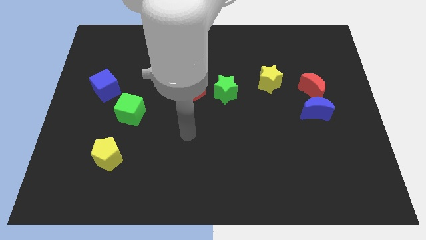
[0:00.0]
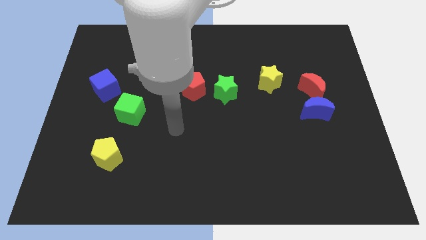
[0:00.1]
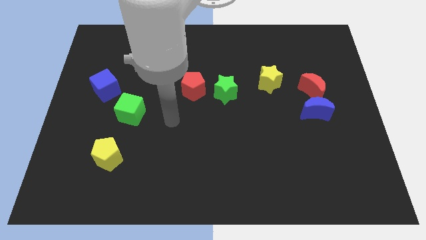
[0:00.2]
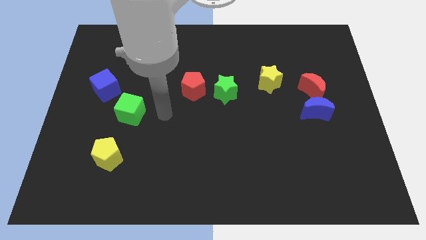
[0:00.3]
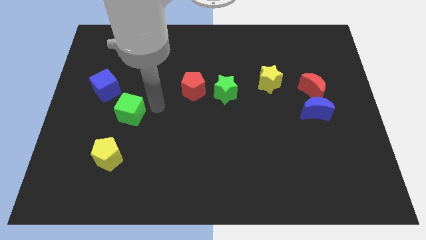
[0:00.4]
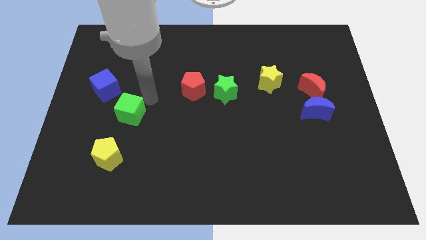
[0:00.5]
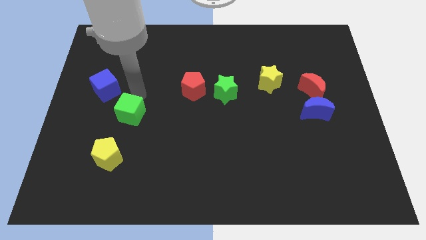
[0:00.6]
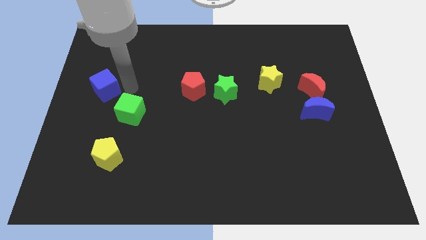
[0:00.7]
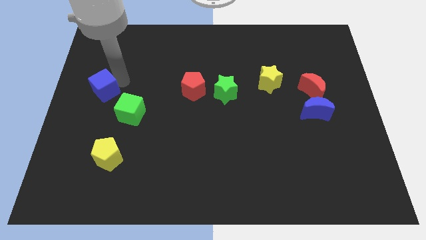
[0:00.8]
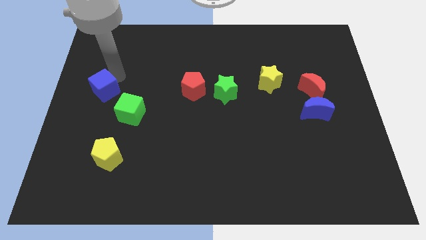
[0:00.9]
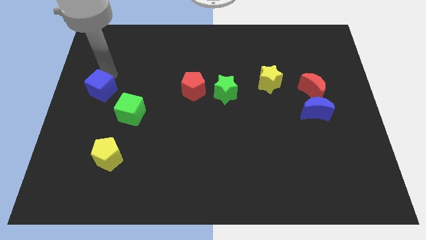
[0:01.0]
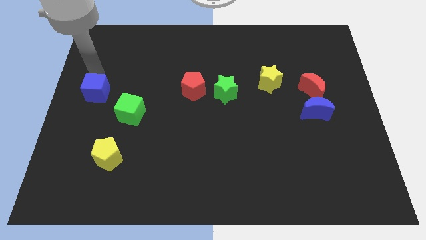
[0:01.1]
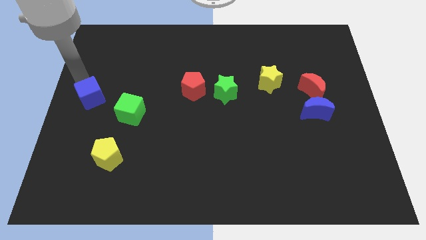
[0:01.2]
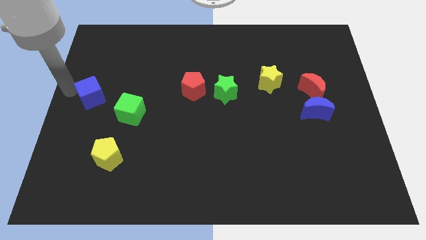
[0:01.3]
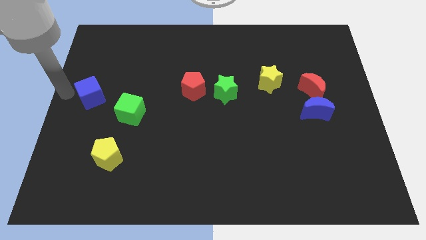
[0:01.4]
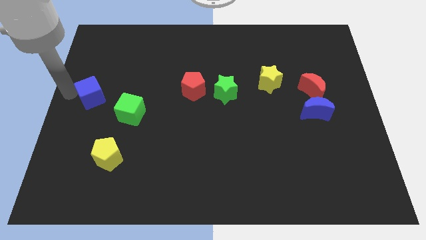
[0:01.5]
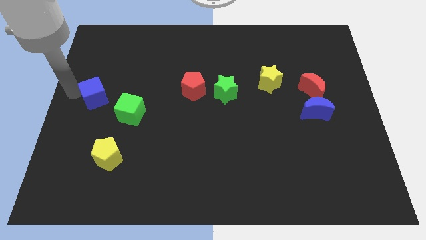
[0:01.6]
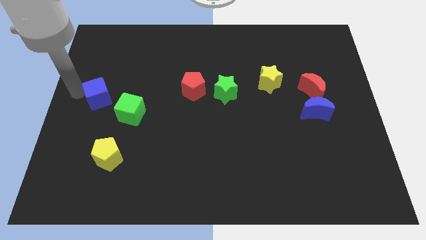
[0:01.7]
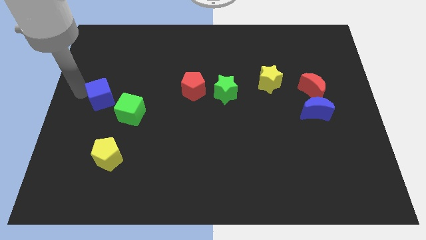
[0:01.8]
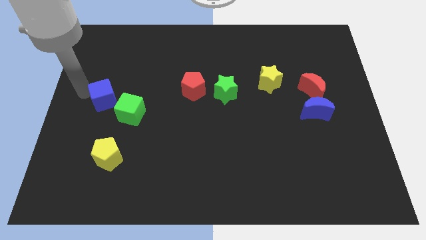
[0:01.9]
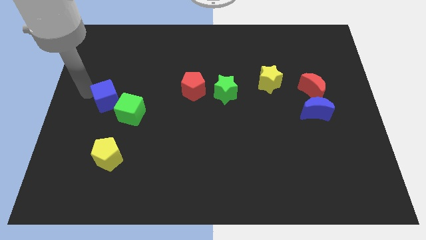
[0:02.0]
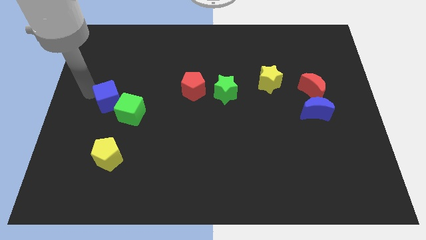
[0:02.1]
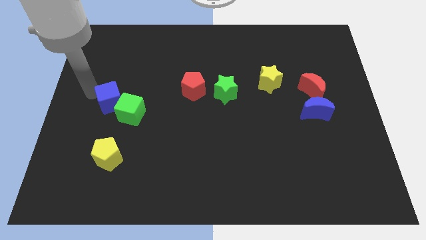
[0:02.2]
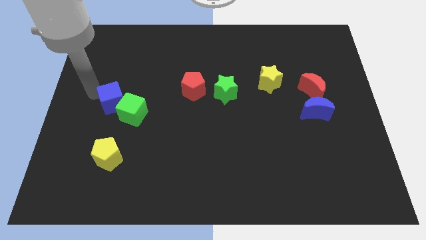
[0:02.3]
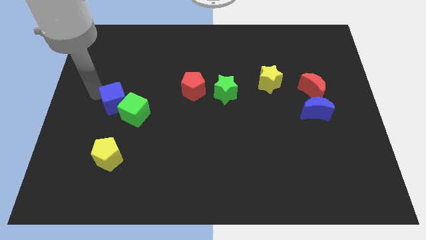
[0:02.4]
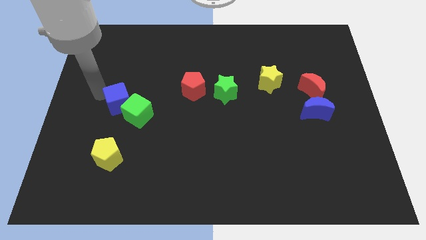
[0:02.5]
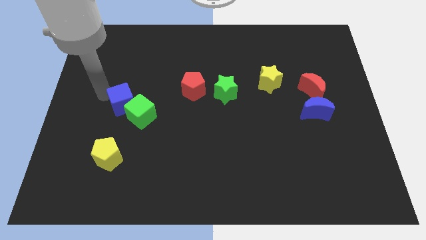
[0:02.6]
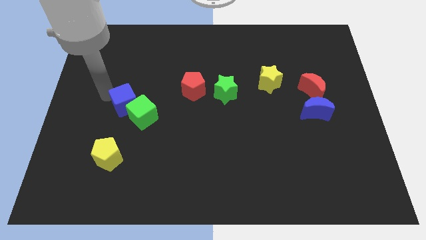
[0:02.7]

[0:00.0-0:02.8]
slide the blue cube downwards and then to the right a little bit

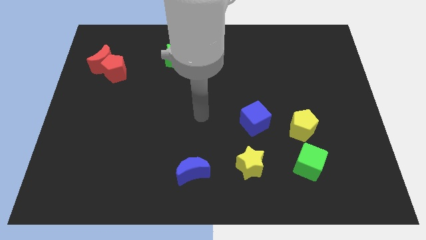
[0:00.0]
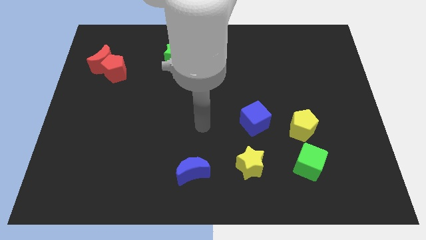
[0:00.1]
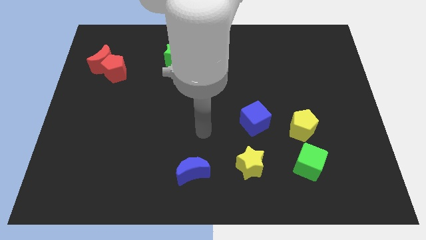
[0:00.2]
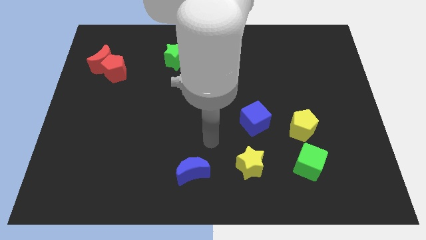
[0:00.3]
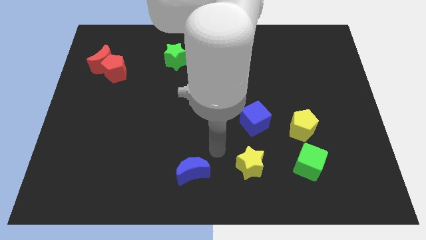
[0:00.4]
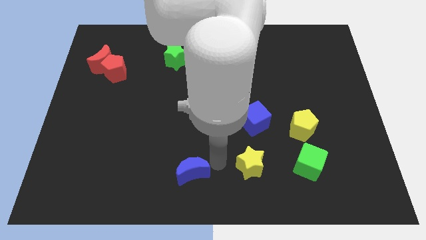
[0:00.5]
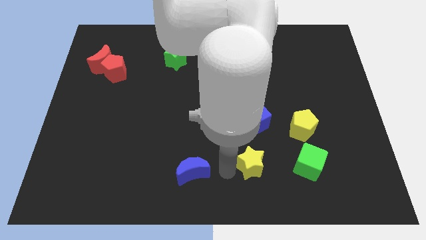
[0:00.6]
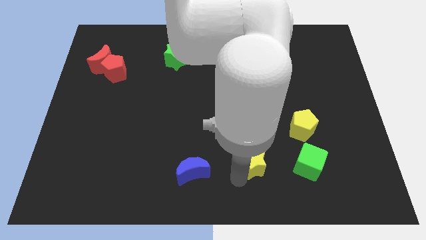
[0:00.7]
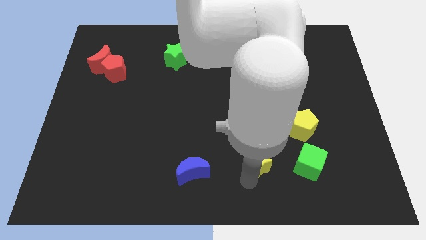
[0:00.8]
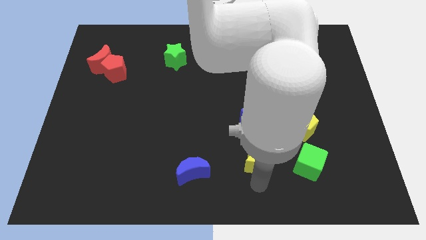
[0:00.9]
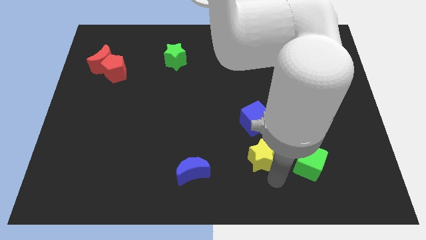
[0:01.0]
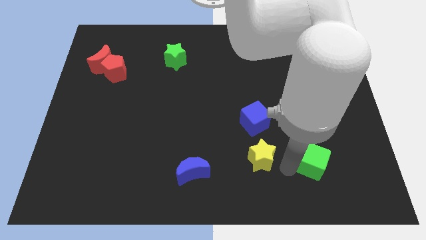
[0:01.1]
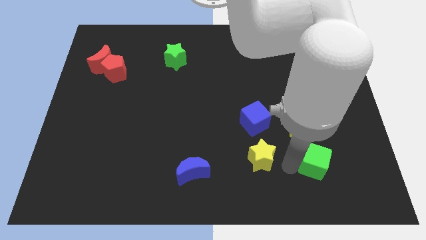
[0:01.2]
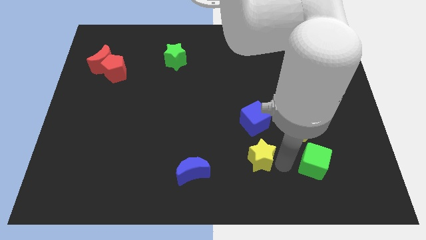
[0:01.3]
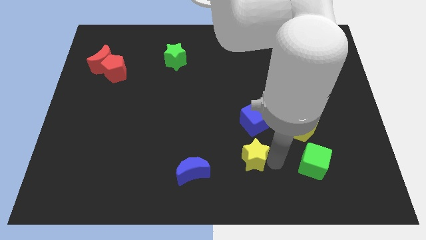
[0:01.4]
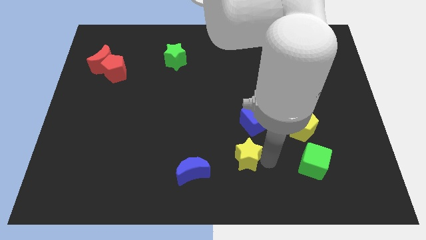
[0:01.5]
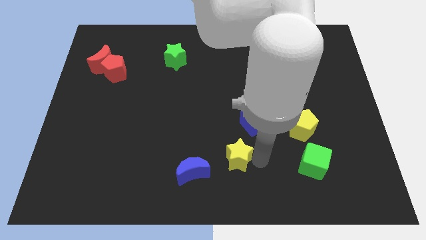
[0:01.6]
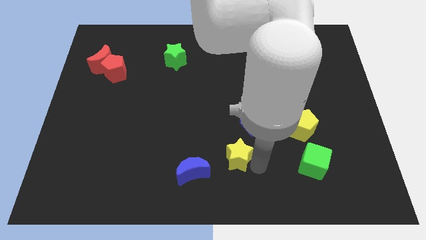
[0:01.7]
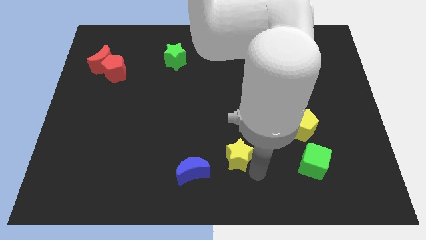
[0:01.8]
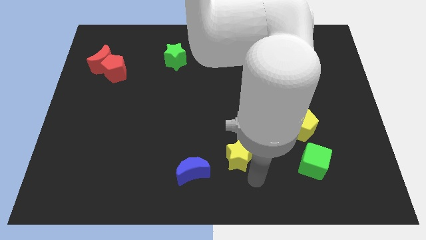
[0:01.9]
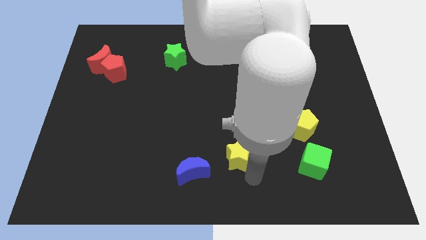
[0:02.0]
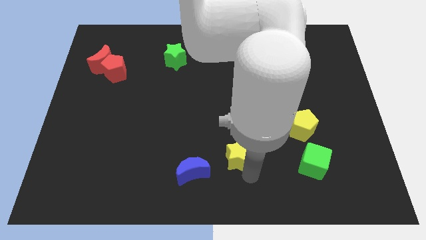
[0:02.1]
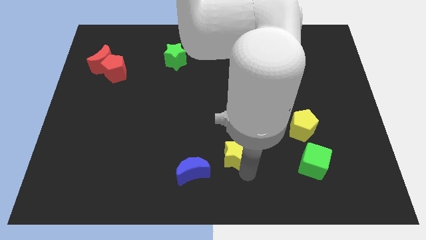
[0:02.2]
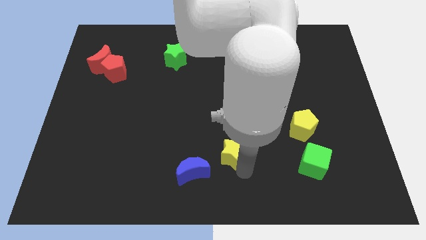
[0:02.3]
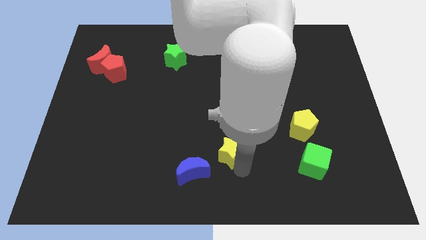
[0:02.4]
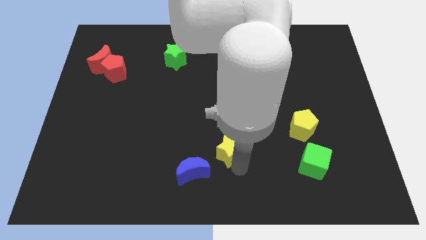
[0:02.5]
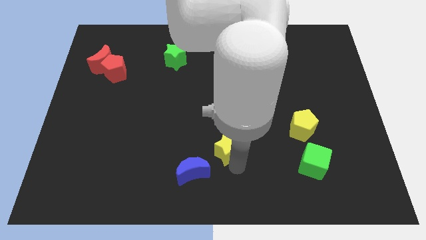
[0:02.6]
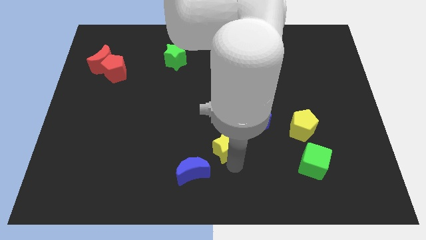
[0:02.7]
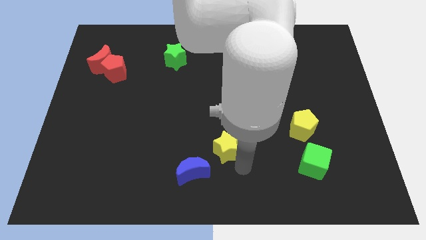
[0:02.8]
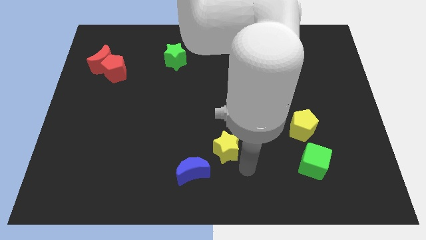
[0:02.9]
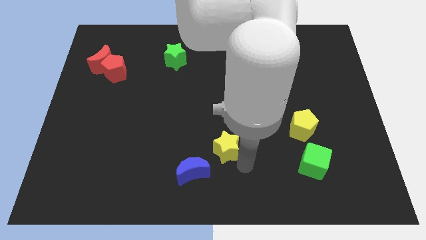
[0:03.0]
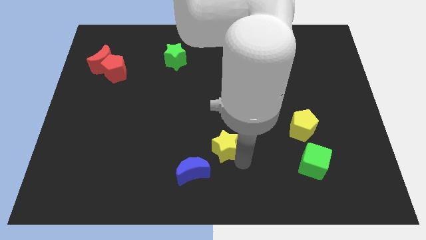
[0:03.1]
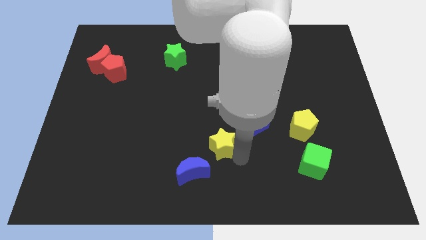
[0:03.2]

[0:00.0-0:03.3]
slide the yellow star up and to the left slightly

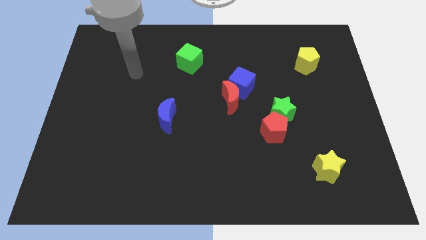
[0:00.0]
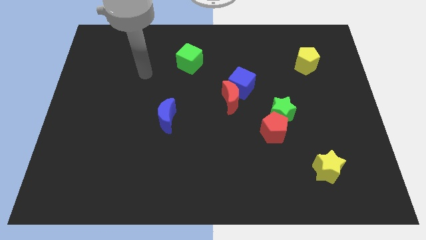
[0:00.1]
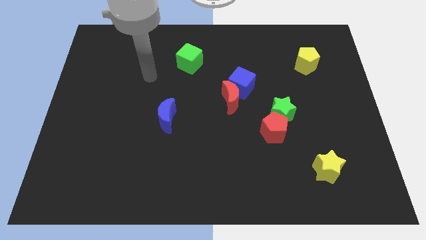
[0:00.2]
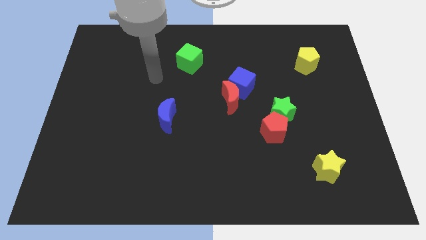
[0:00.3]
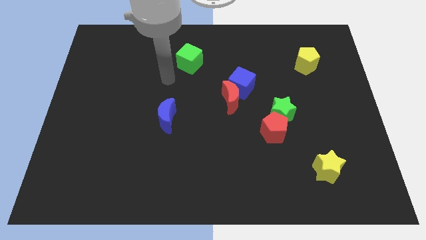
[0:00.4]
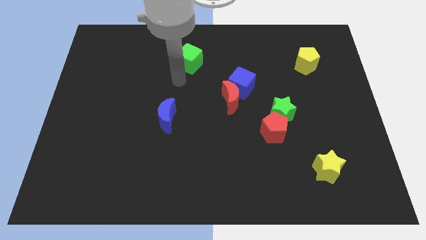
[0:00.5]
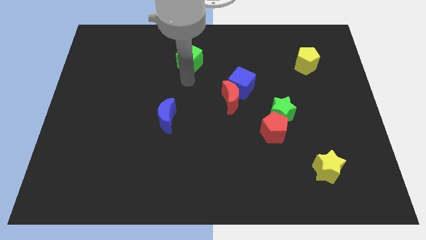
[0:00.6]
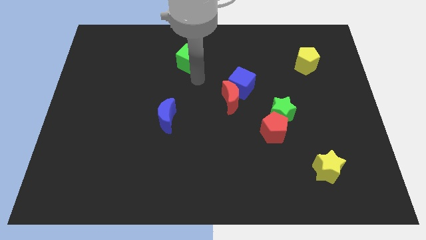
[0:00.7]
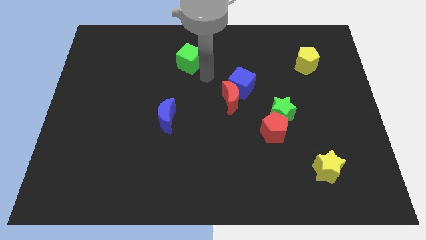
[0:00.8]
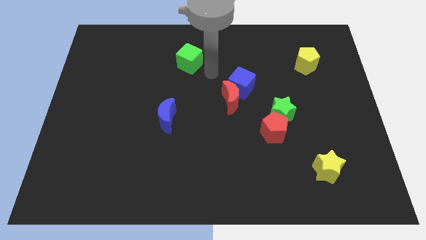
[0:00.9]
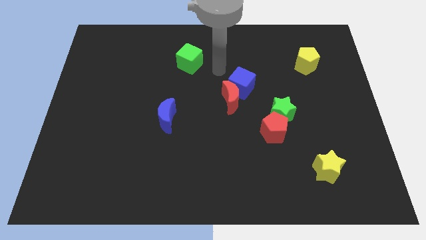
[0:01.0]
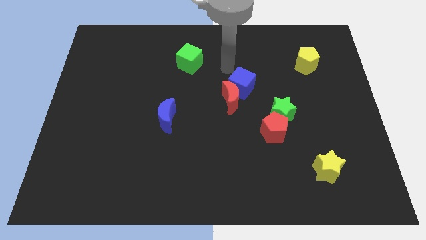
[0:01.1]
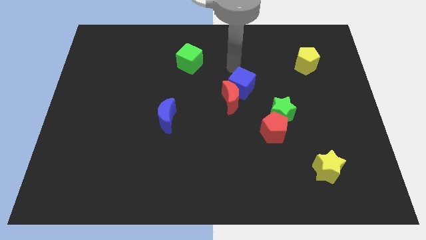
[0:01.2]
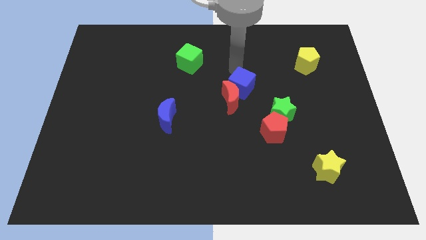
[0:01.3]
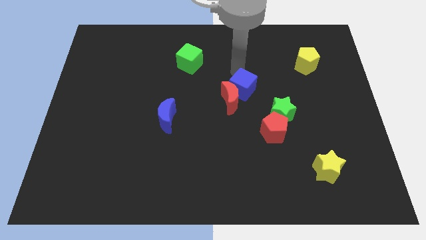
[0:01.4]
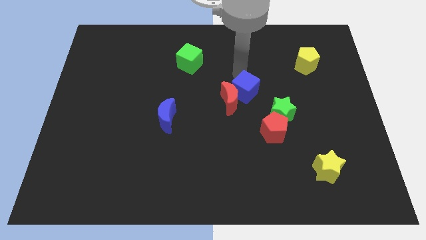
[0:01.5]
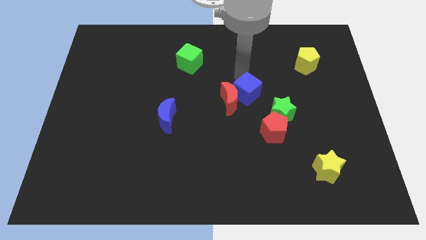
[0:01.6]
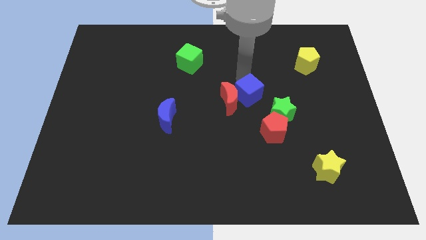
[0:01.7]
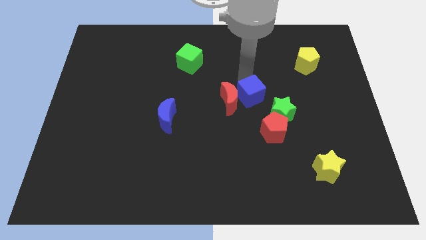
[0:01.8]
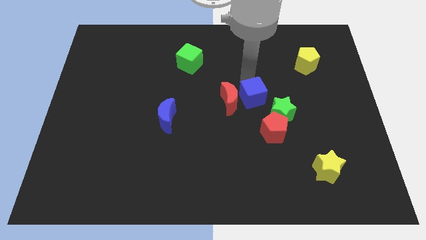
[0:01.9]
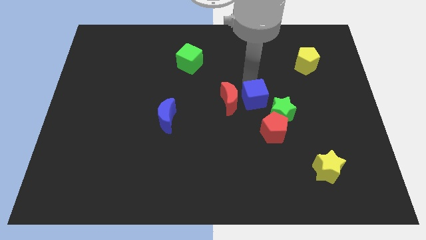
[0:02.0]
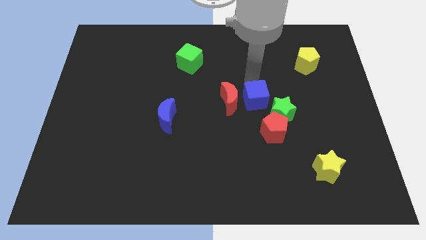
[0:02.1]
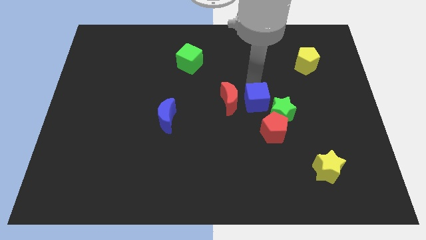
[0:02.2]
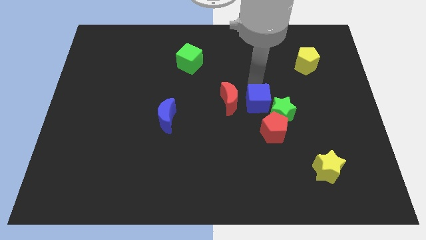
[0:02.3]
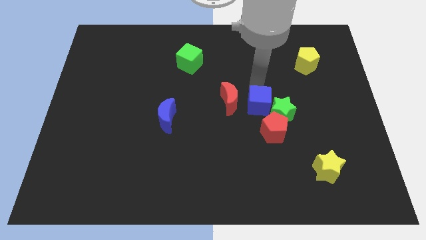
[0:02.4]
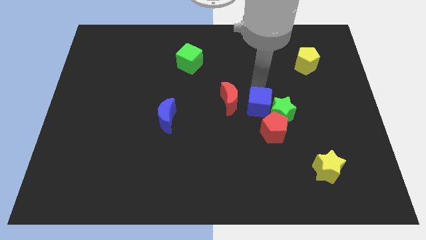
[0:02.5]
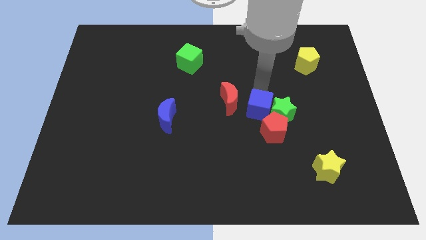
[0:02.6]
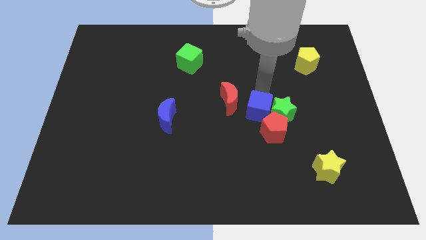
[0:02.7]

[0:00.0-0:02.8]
move the blue cube down slightly
